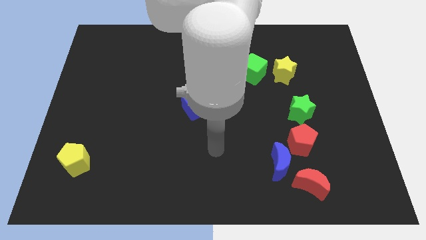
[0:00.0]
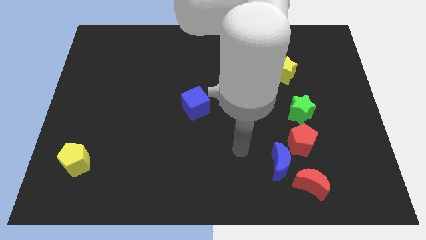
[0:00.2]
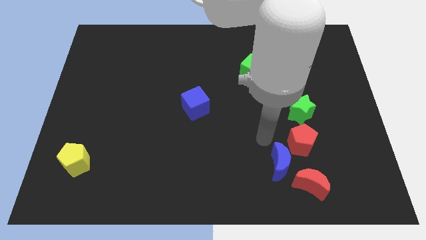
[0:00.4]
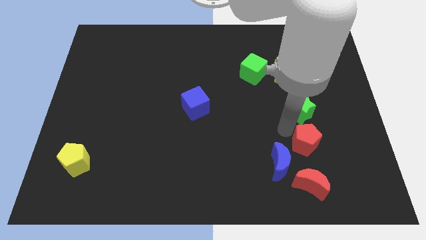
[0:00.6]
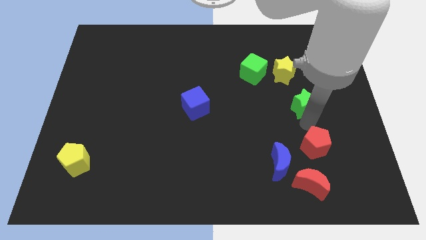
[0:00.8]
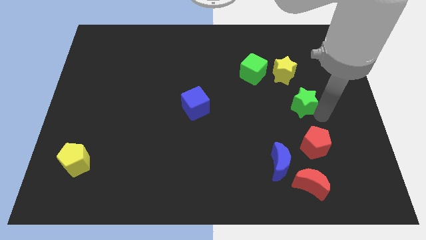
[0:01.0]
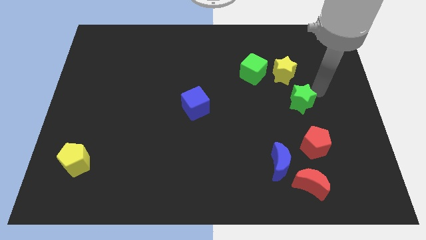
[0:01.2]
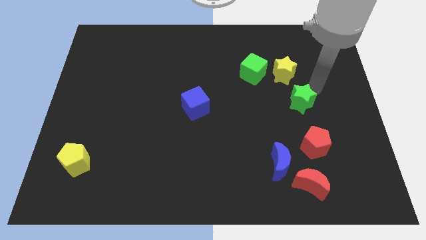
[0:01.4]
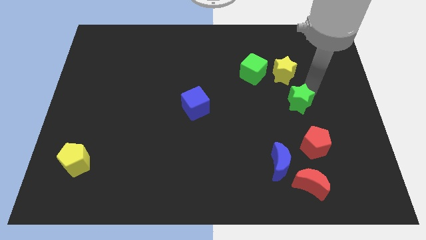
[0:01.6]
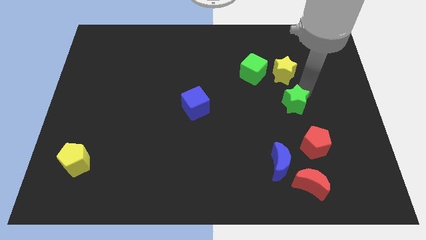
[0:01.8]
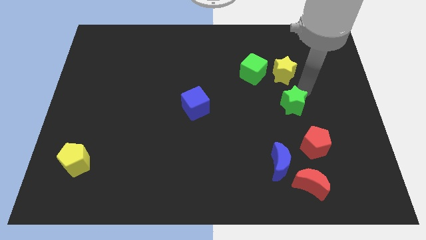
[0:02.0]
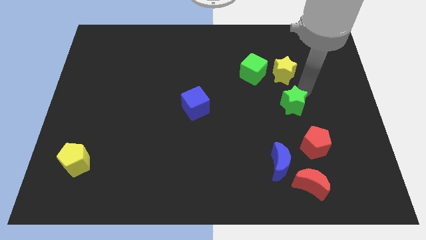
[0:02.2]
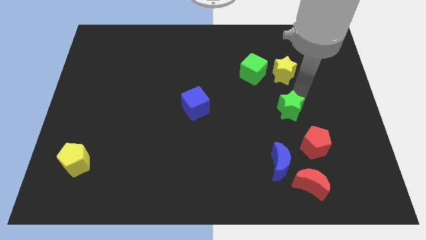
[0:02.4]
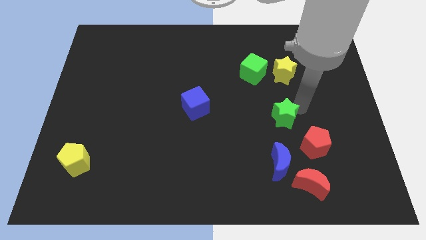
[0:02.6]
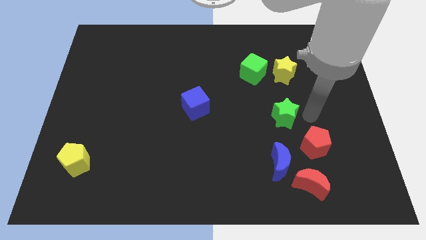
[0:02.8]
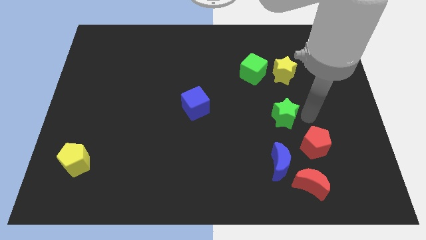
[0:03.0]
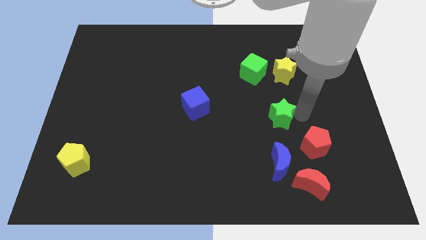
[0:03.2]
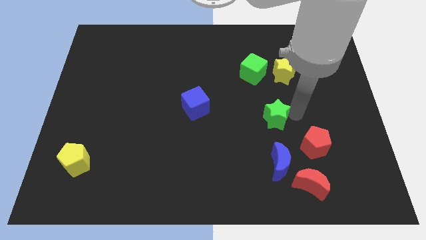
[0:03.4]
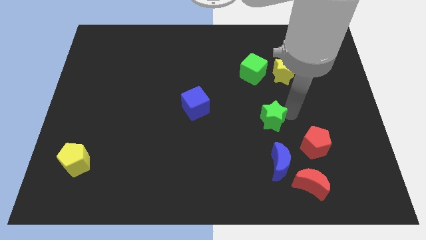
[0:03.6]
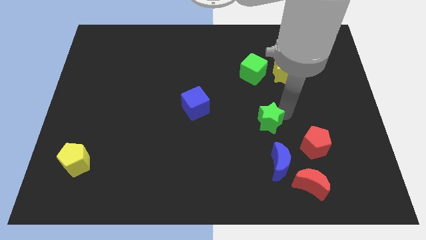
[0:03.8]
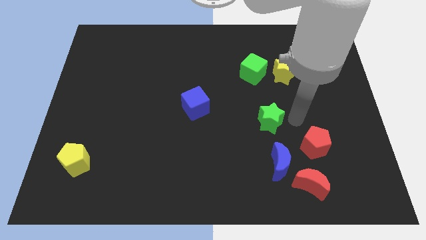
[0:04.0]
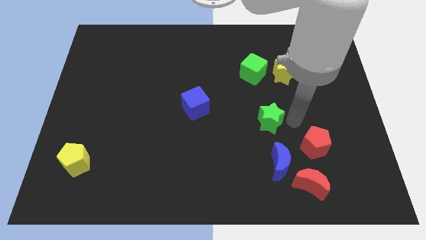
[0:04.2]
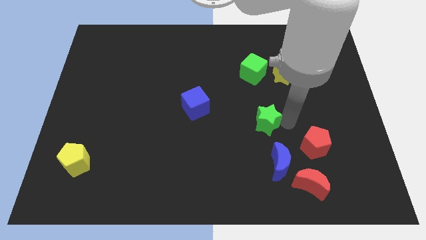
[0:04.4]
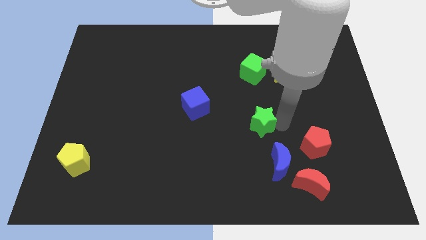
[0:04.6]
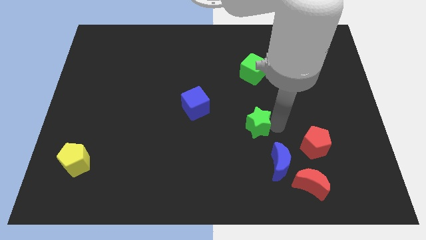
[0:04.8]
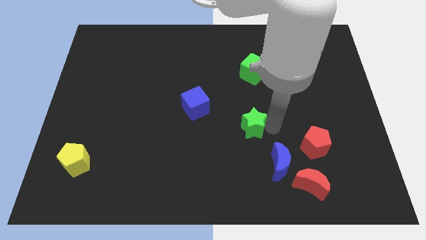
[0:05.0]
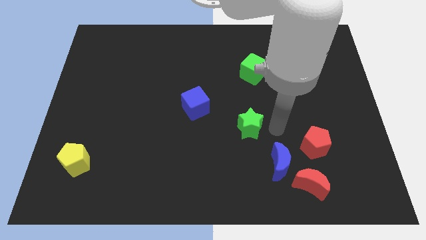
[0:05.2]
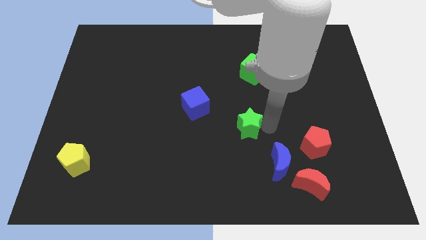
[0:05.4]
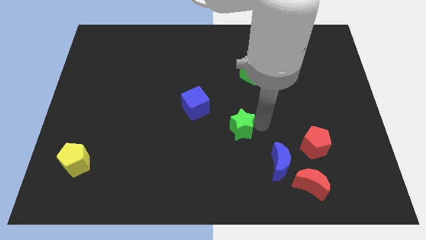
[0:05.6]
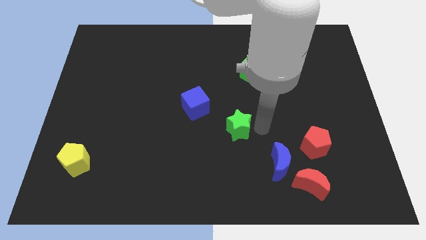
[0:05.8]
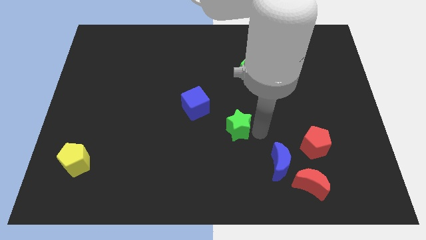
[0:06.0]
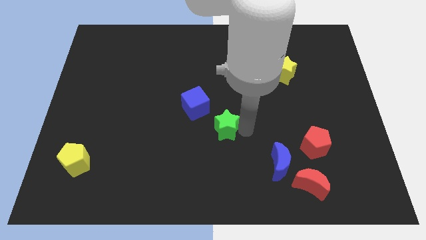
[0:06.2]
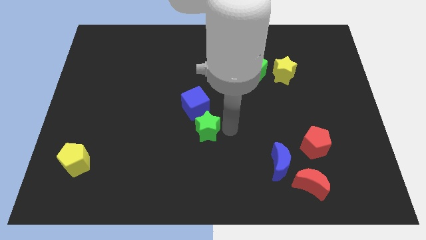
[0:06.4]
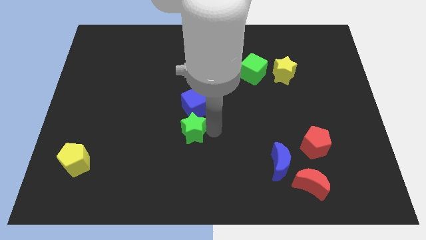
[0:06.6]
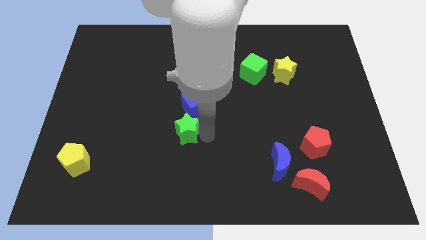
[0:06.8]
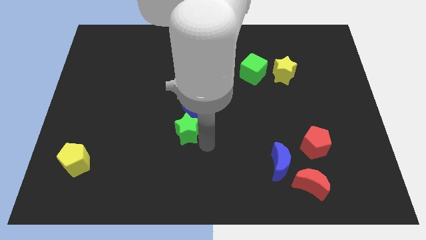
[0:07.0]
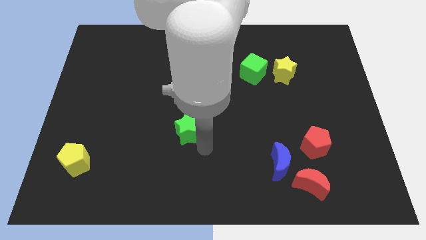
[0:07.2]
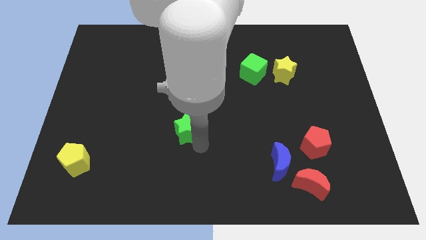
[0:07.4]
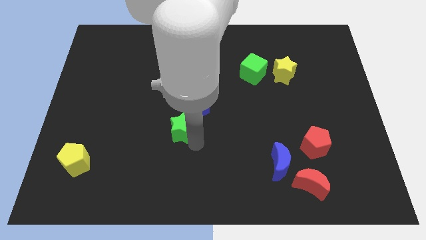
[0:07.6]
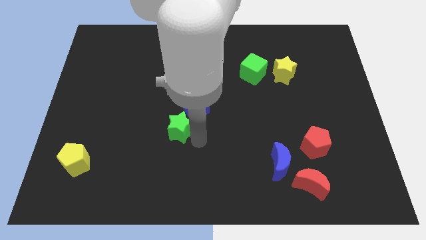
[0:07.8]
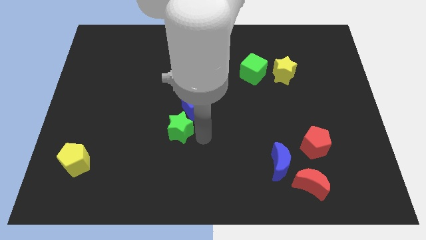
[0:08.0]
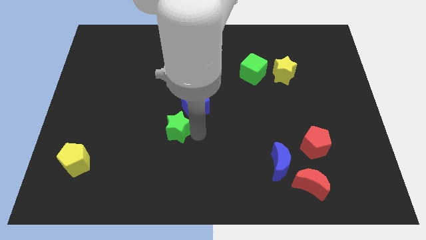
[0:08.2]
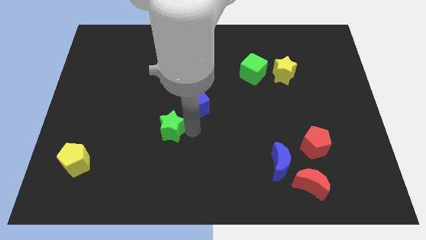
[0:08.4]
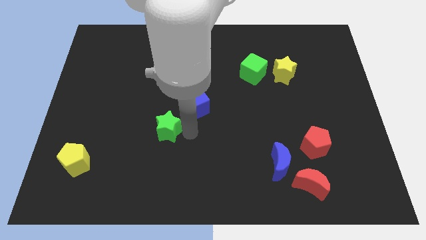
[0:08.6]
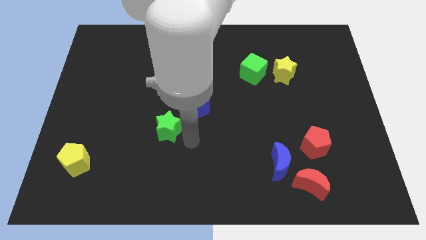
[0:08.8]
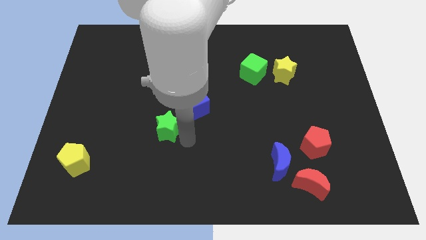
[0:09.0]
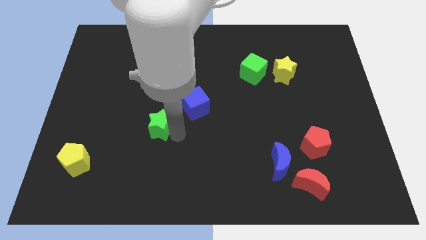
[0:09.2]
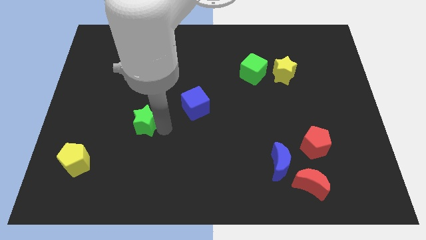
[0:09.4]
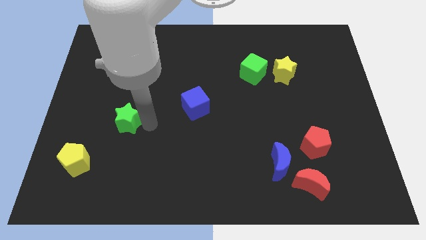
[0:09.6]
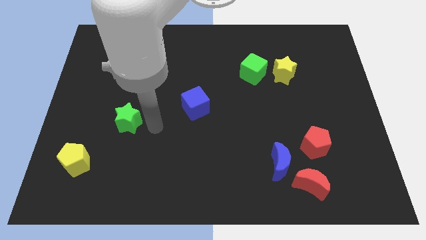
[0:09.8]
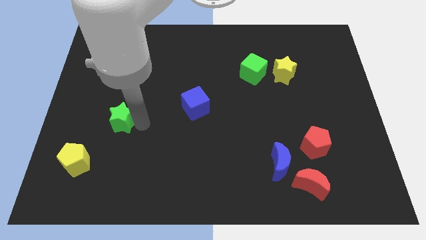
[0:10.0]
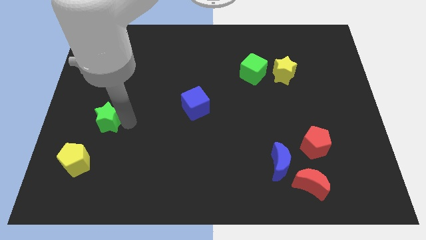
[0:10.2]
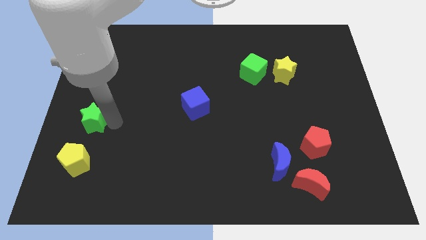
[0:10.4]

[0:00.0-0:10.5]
move the green star to the left side

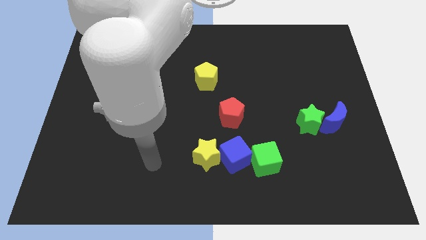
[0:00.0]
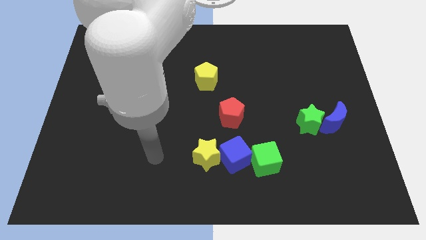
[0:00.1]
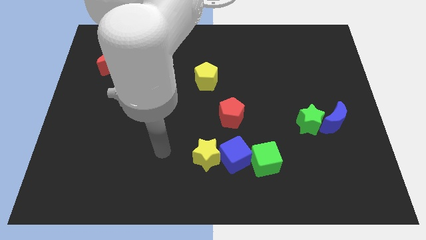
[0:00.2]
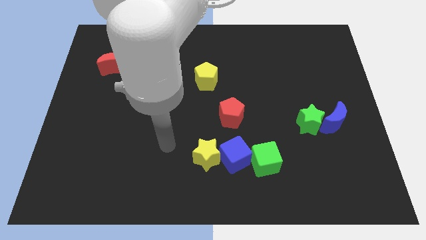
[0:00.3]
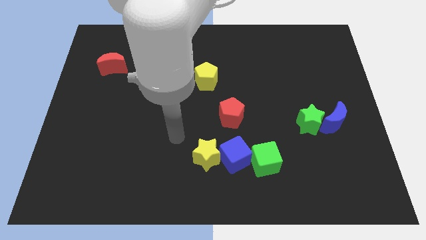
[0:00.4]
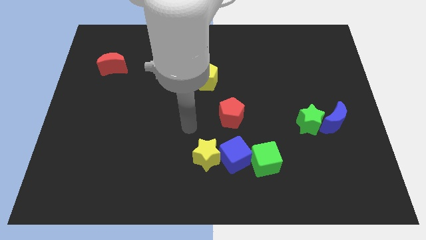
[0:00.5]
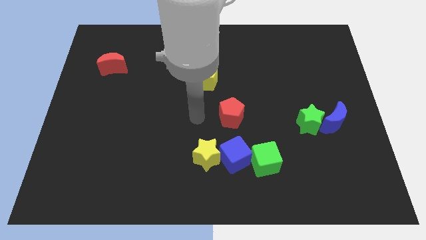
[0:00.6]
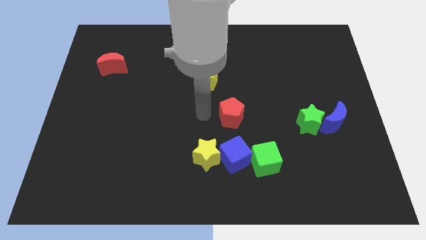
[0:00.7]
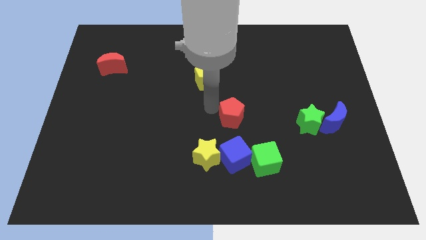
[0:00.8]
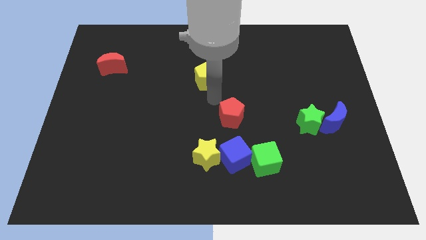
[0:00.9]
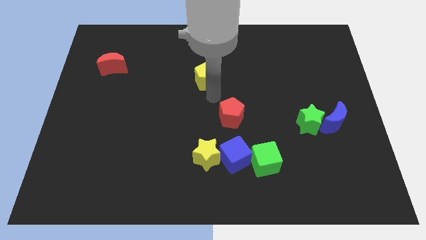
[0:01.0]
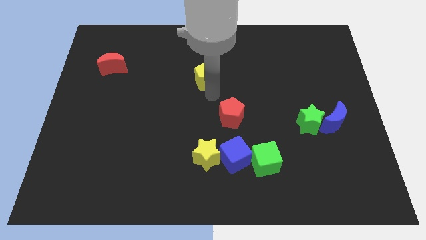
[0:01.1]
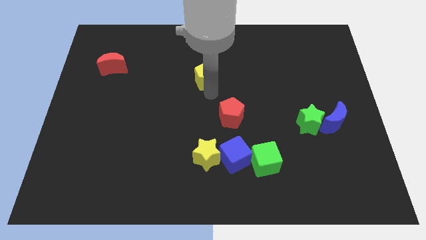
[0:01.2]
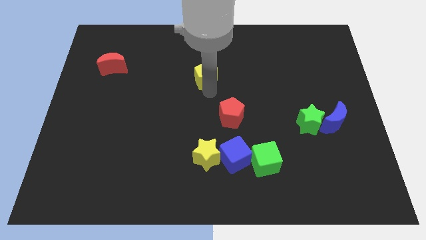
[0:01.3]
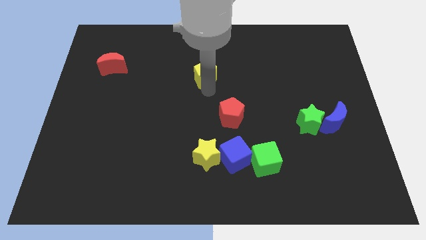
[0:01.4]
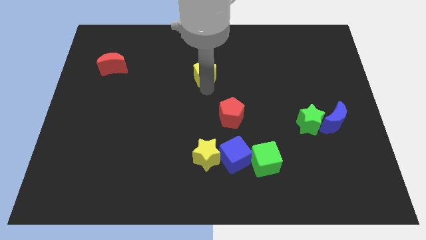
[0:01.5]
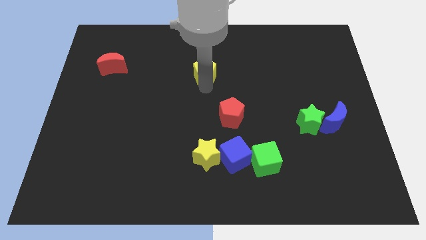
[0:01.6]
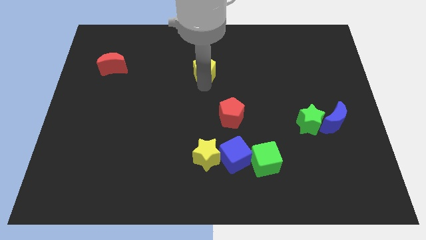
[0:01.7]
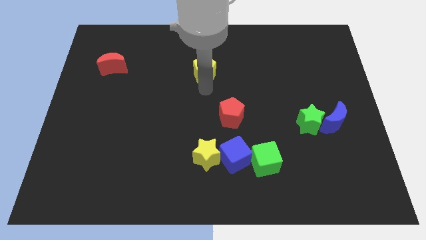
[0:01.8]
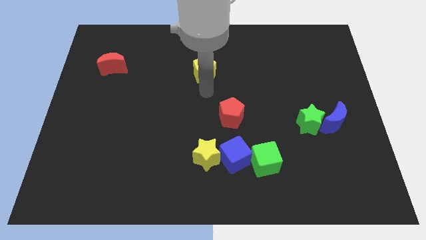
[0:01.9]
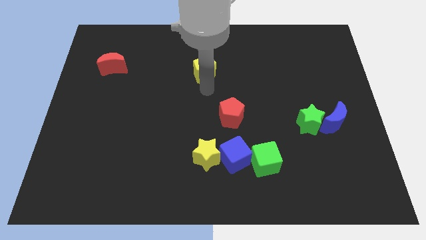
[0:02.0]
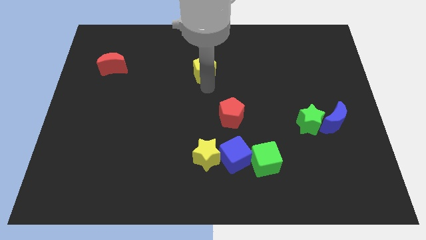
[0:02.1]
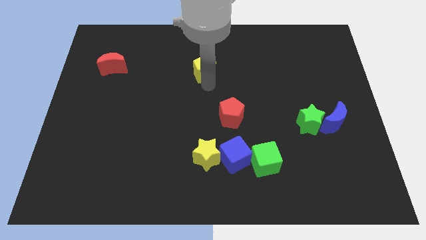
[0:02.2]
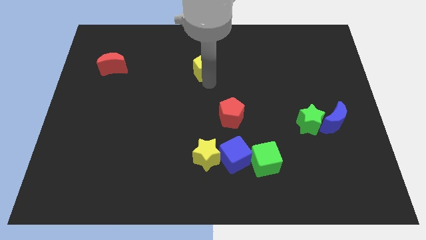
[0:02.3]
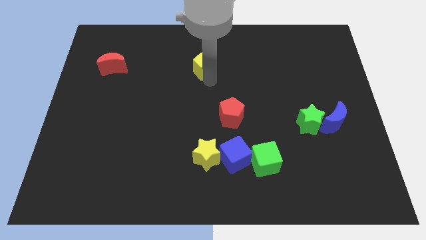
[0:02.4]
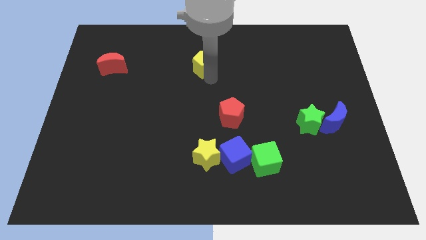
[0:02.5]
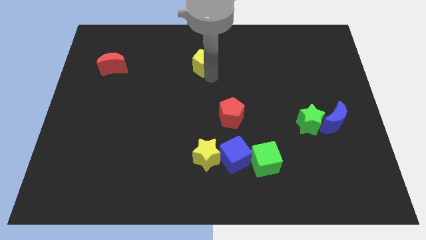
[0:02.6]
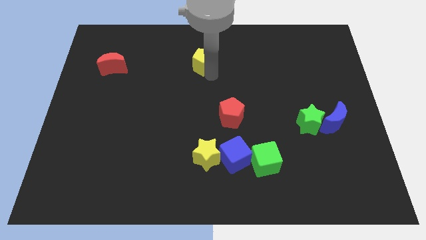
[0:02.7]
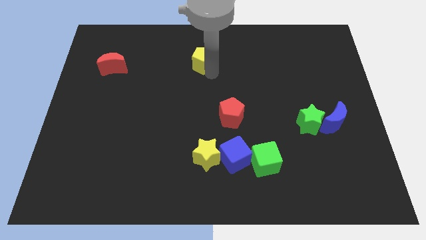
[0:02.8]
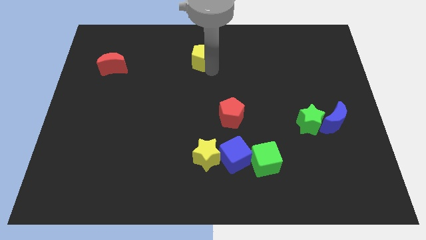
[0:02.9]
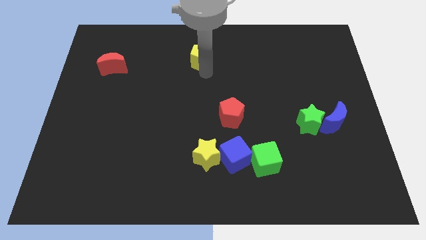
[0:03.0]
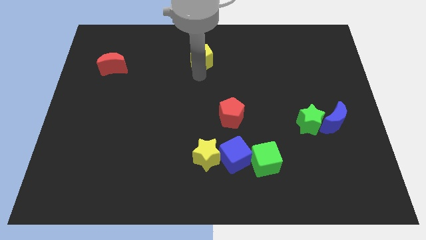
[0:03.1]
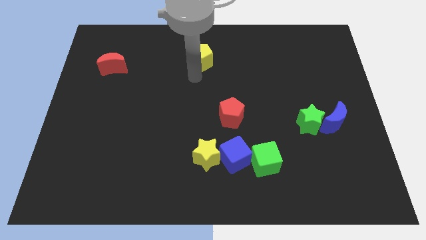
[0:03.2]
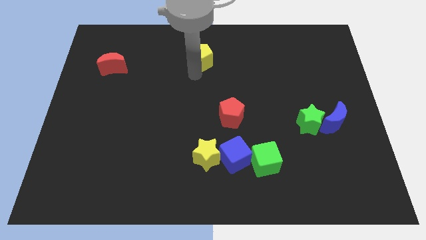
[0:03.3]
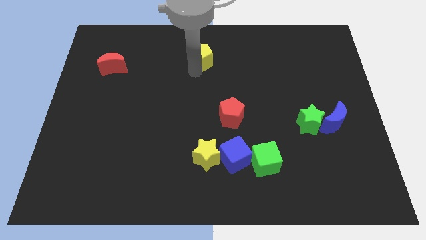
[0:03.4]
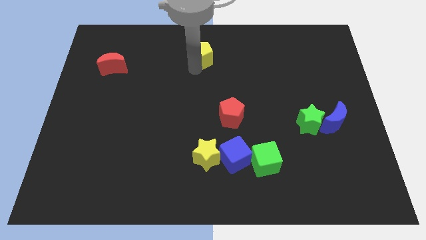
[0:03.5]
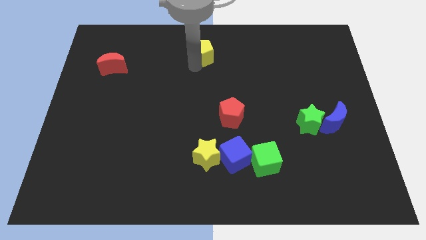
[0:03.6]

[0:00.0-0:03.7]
move the yellow pentagon to the top
